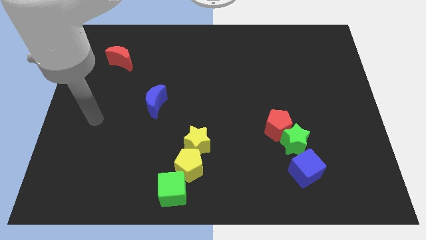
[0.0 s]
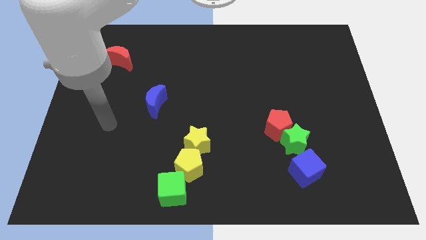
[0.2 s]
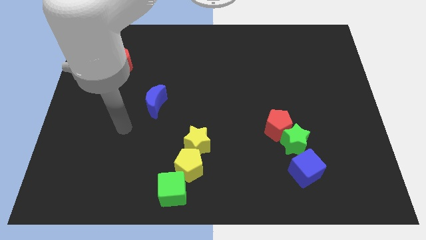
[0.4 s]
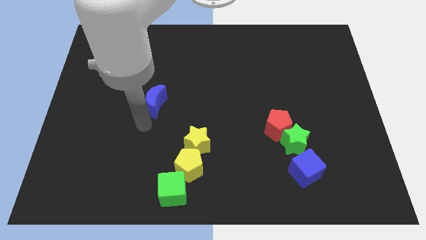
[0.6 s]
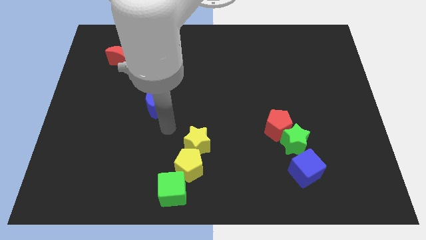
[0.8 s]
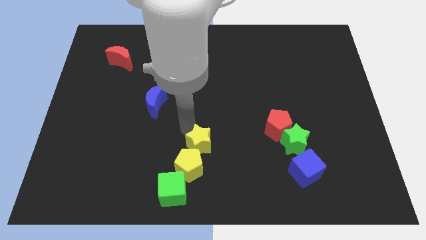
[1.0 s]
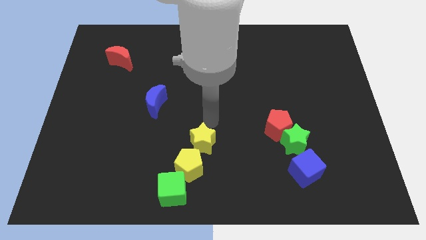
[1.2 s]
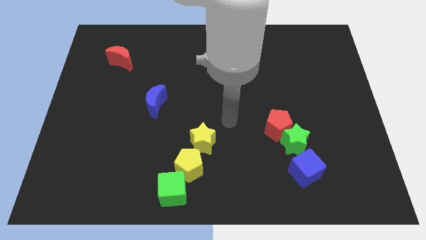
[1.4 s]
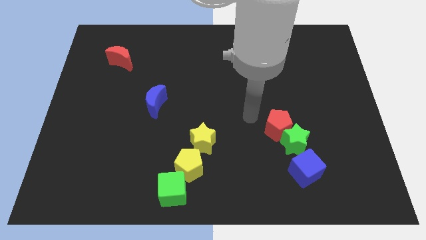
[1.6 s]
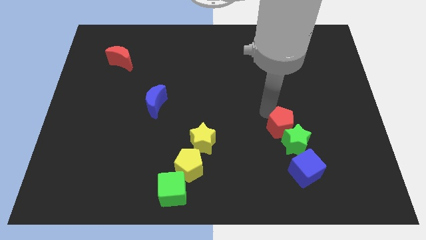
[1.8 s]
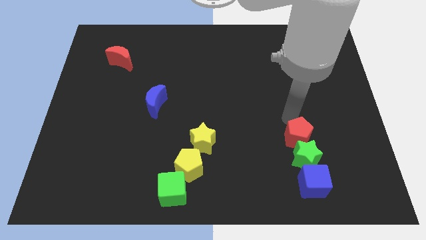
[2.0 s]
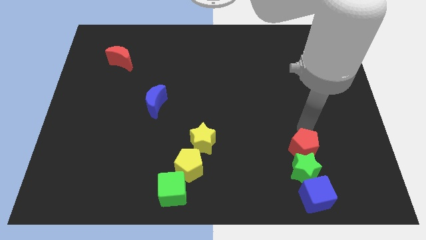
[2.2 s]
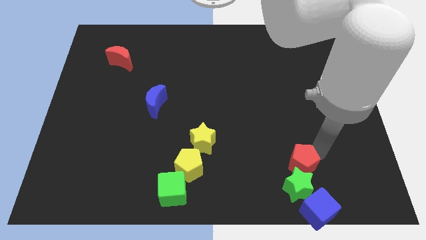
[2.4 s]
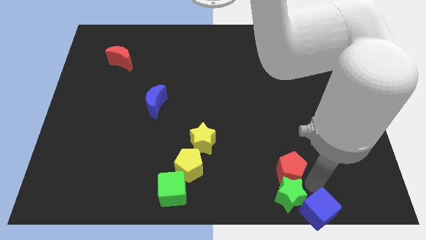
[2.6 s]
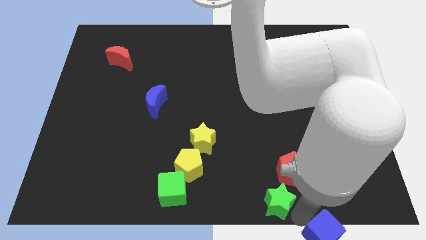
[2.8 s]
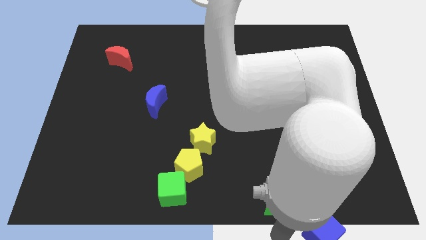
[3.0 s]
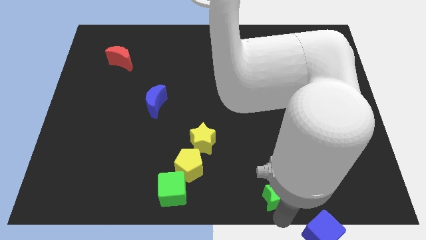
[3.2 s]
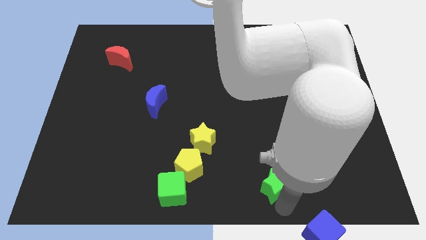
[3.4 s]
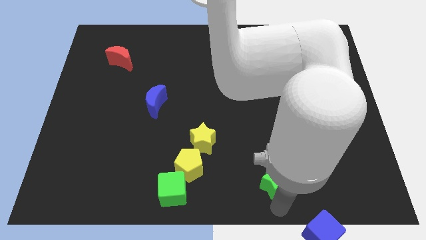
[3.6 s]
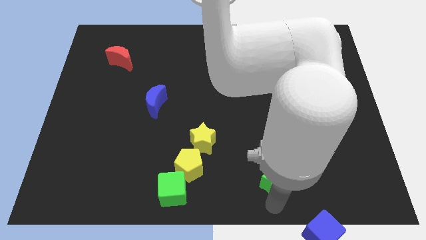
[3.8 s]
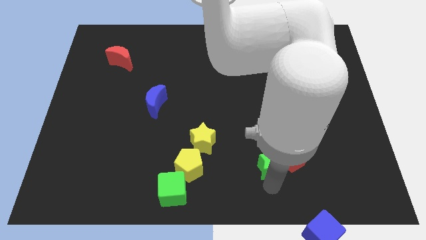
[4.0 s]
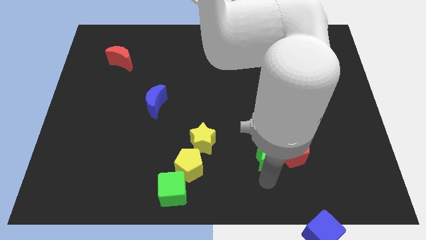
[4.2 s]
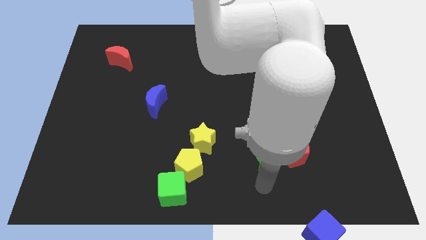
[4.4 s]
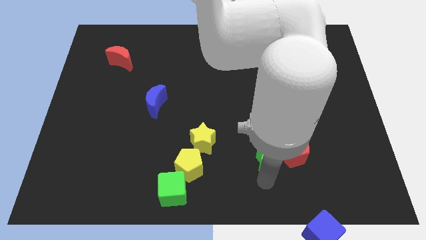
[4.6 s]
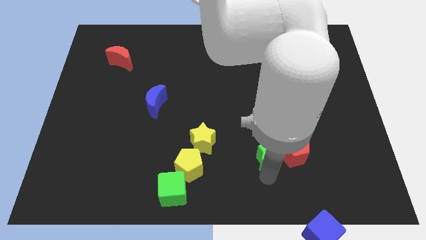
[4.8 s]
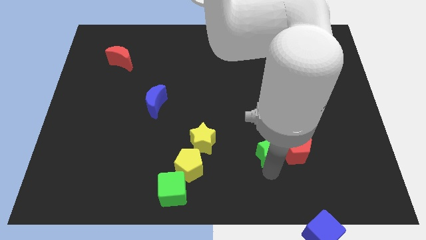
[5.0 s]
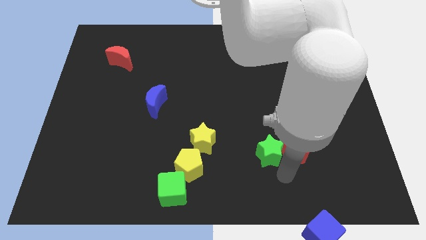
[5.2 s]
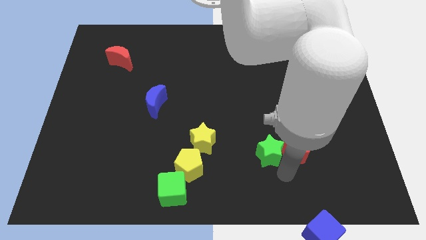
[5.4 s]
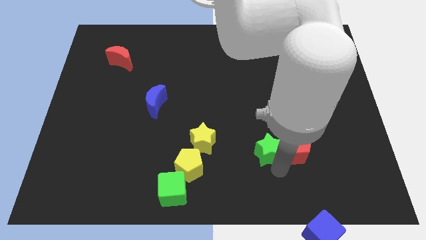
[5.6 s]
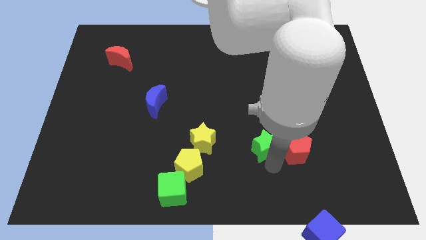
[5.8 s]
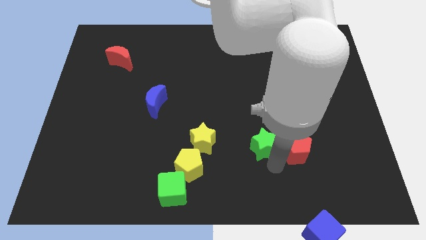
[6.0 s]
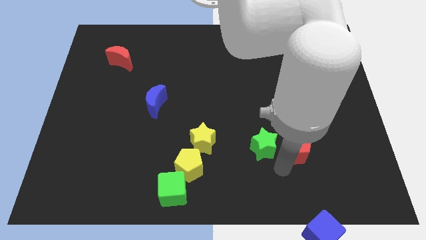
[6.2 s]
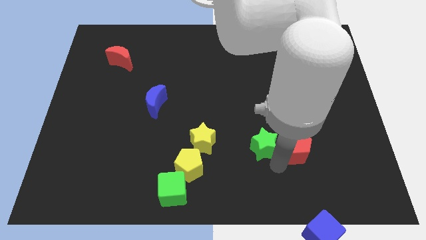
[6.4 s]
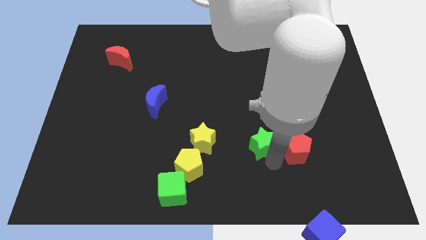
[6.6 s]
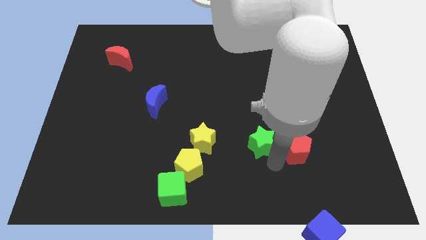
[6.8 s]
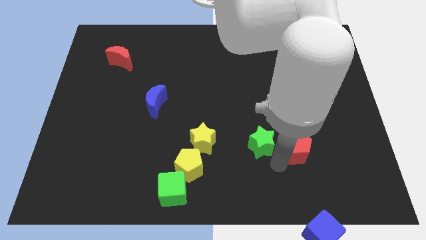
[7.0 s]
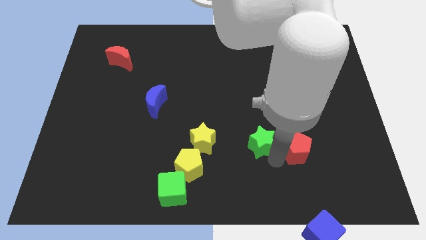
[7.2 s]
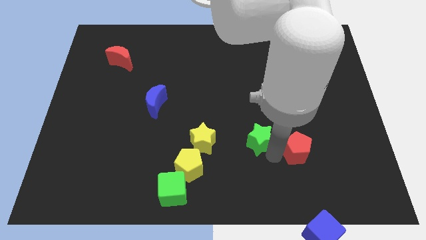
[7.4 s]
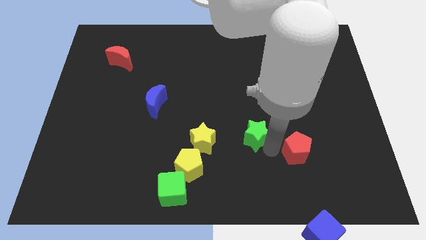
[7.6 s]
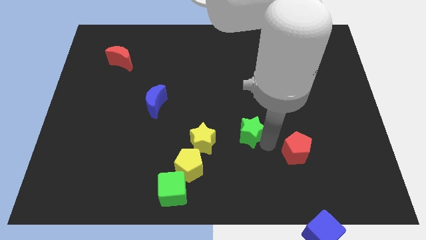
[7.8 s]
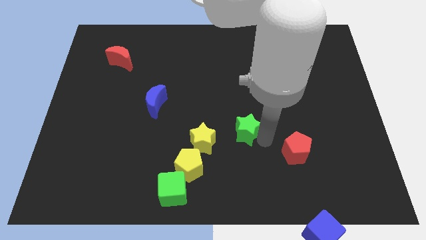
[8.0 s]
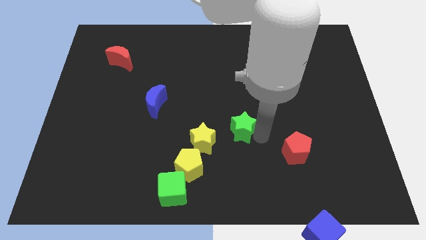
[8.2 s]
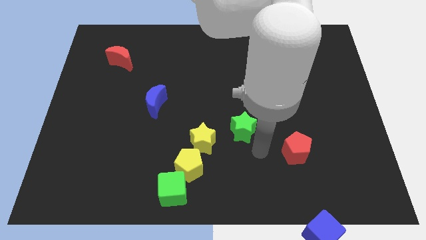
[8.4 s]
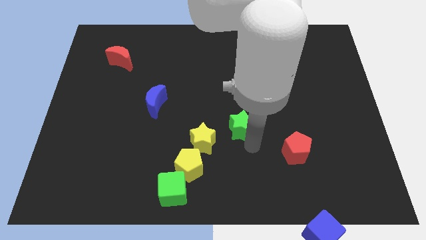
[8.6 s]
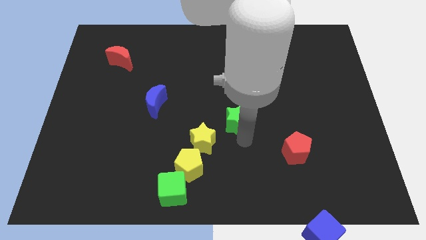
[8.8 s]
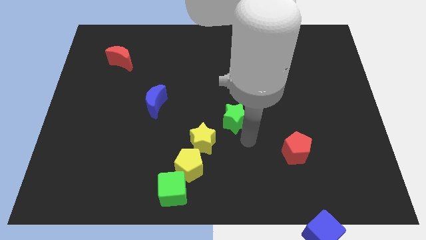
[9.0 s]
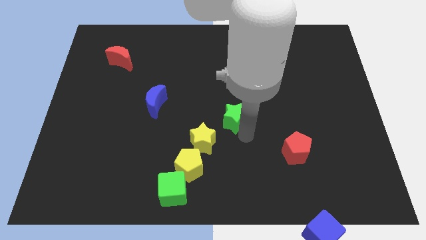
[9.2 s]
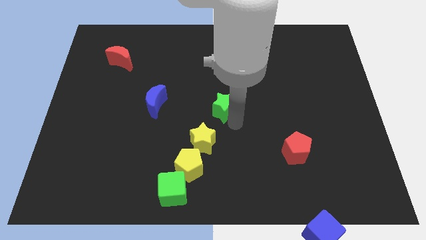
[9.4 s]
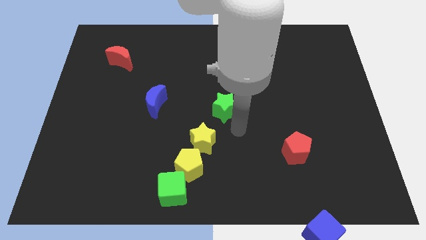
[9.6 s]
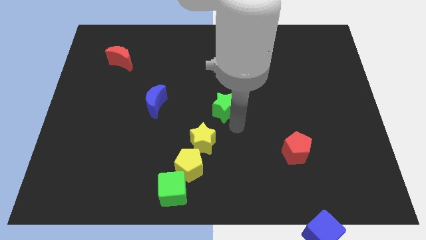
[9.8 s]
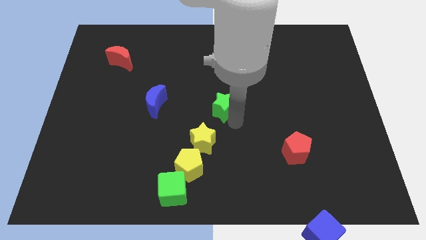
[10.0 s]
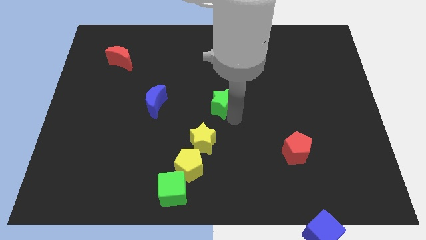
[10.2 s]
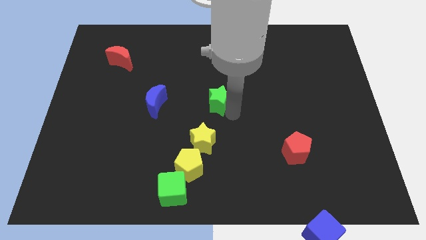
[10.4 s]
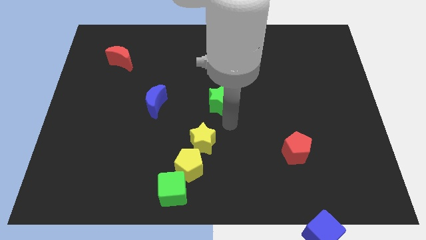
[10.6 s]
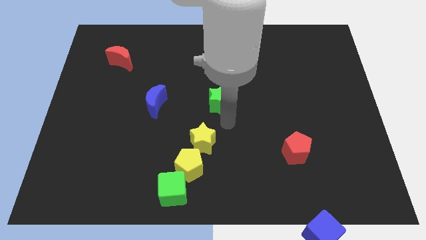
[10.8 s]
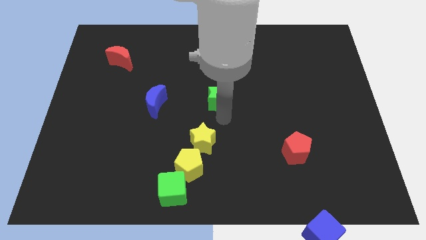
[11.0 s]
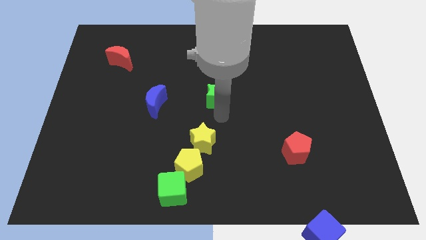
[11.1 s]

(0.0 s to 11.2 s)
push the green star up and then left

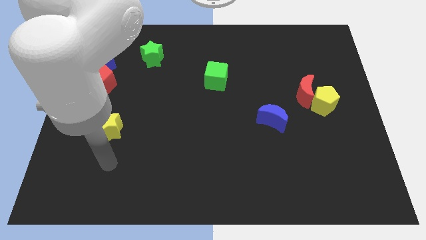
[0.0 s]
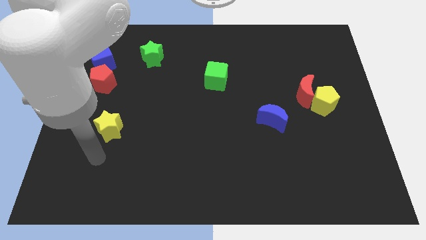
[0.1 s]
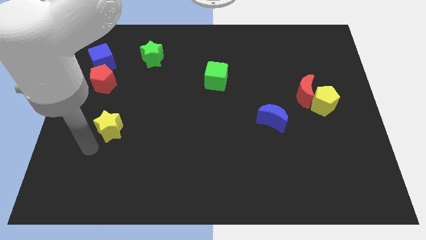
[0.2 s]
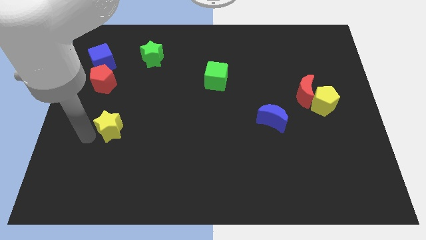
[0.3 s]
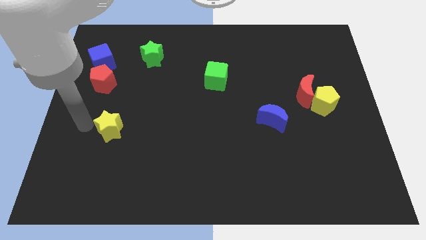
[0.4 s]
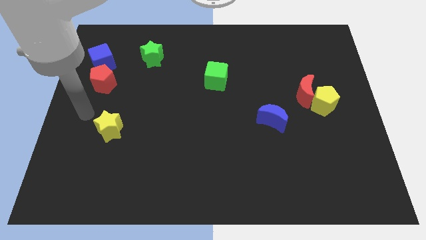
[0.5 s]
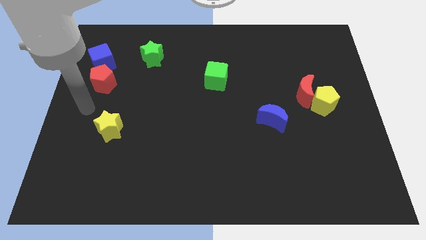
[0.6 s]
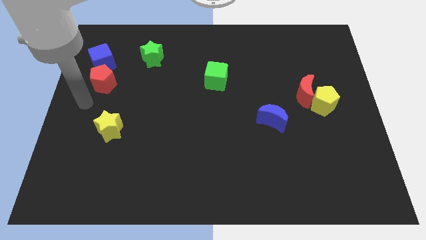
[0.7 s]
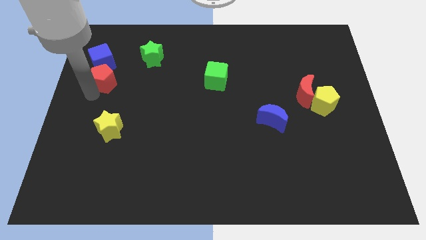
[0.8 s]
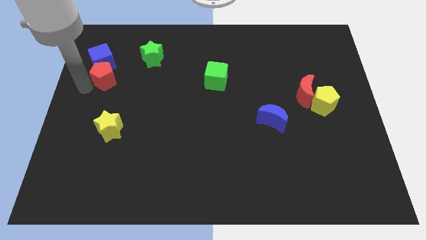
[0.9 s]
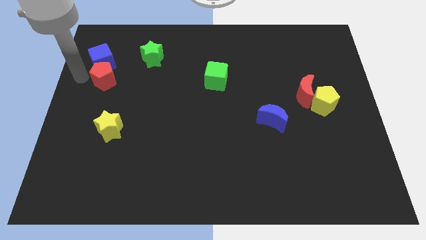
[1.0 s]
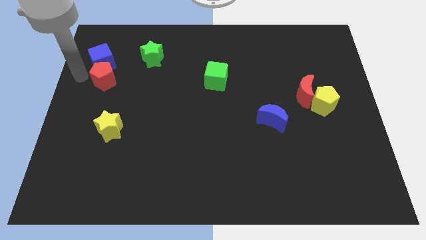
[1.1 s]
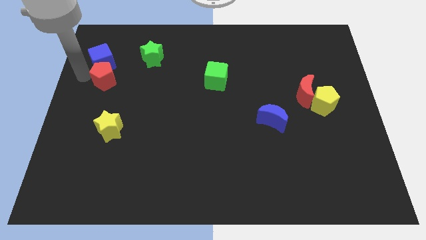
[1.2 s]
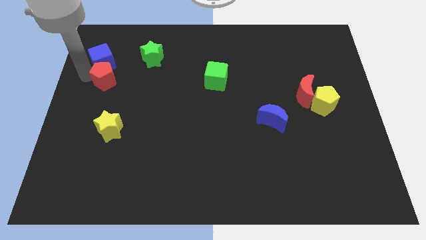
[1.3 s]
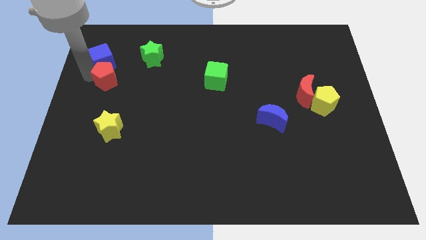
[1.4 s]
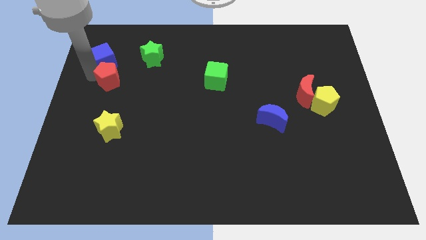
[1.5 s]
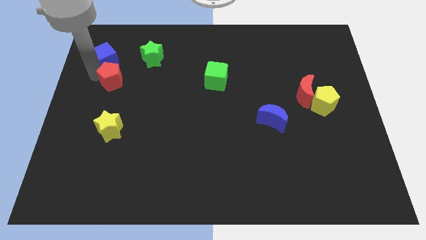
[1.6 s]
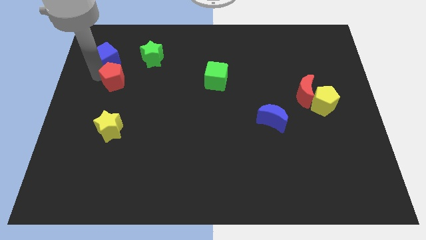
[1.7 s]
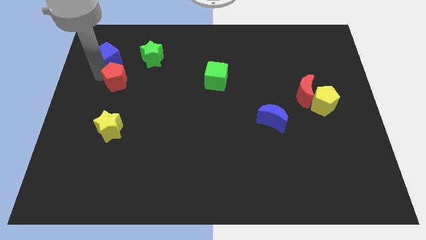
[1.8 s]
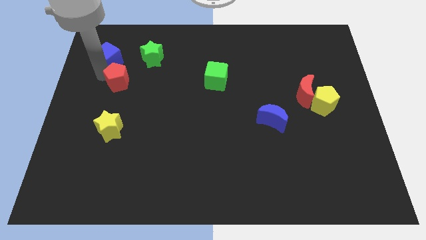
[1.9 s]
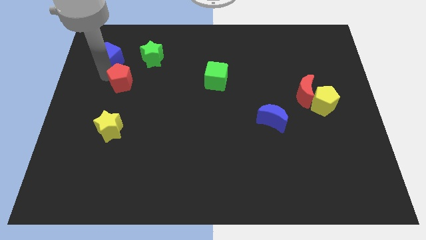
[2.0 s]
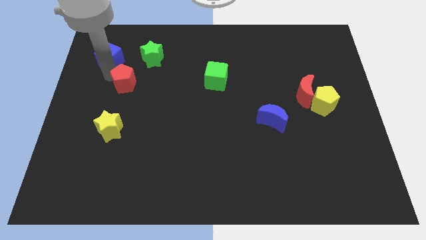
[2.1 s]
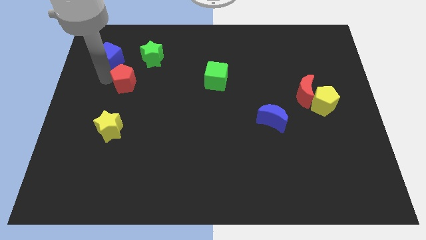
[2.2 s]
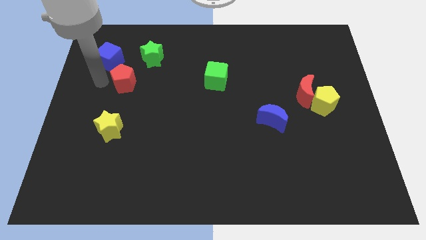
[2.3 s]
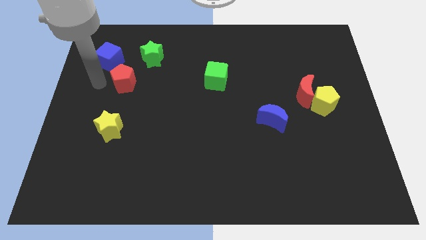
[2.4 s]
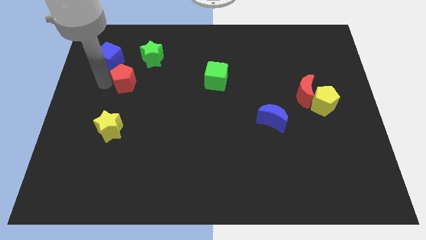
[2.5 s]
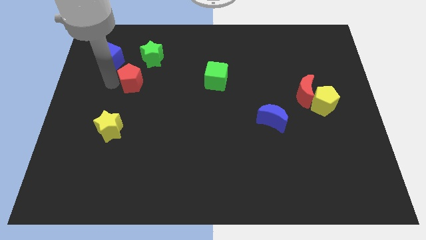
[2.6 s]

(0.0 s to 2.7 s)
move the red pentagon to the right slightly
